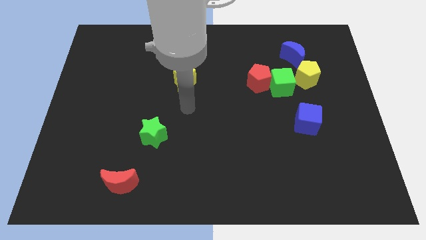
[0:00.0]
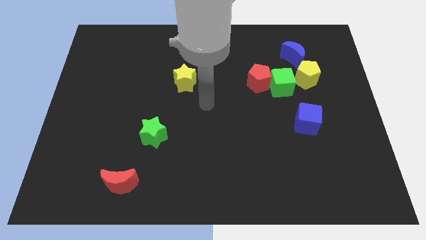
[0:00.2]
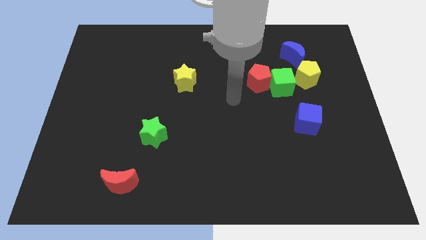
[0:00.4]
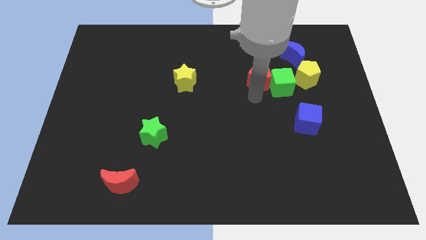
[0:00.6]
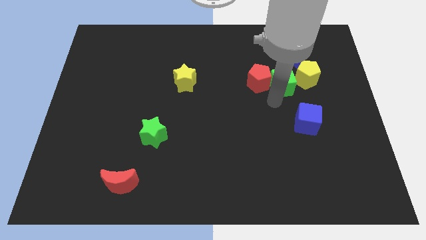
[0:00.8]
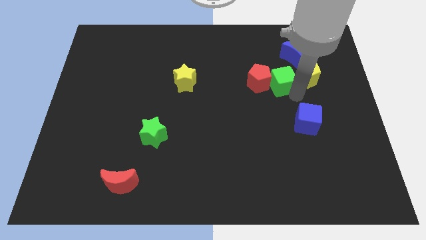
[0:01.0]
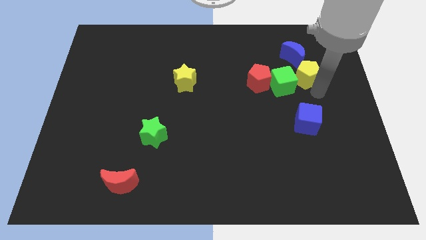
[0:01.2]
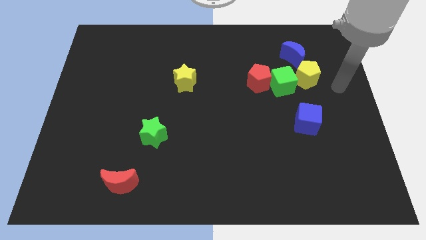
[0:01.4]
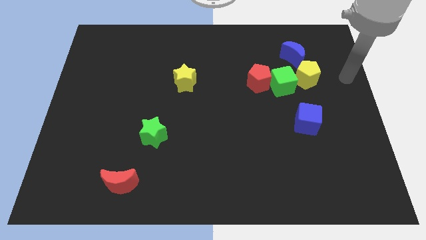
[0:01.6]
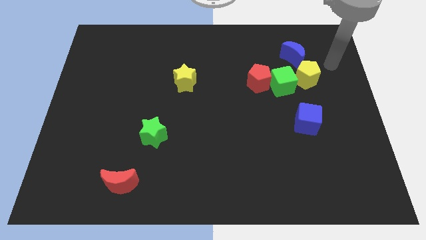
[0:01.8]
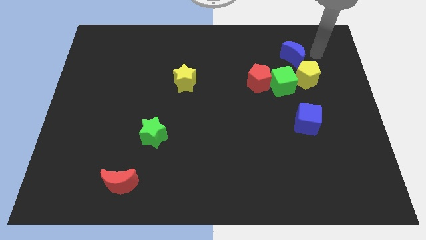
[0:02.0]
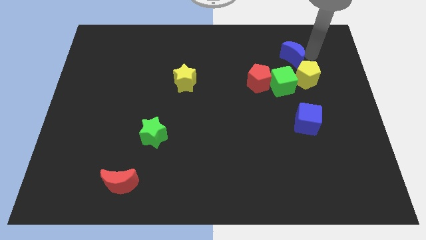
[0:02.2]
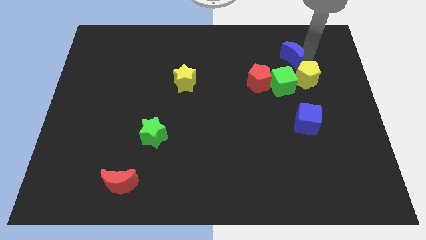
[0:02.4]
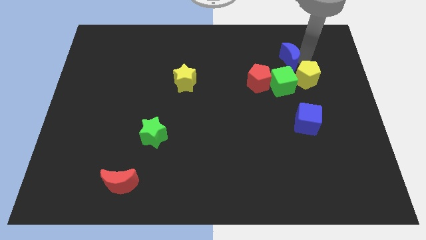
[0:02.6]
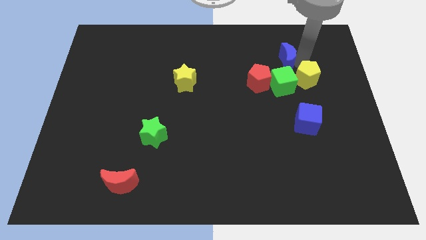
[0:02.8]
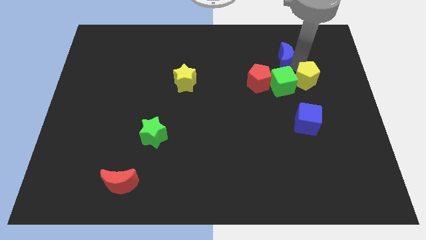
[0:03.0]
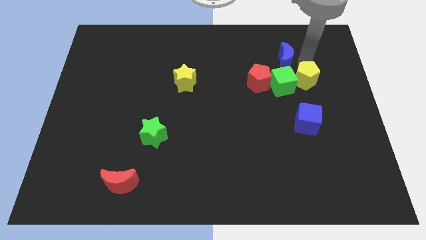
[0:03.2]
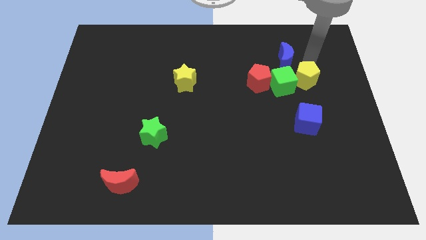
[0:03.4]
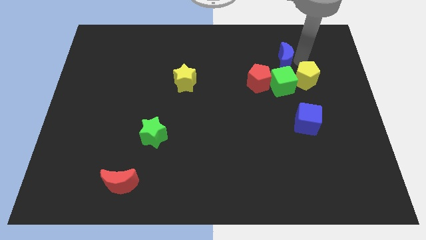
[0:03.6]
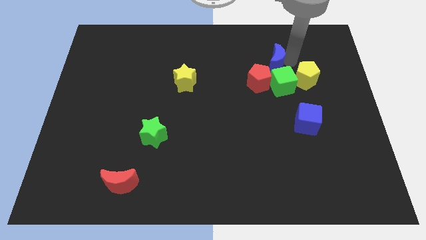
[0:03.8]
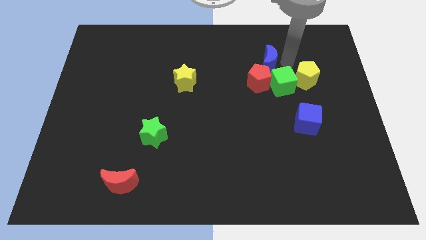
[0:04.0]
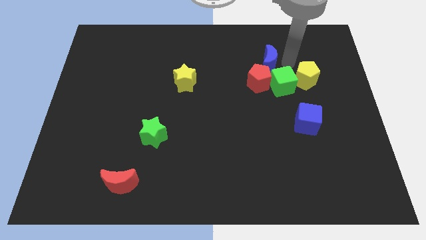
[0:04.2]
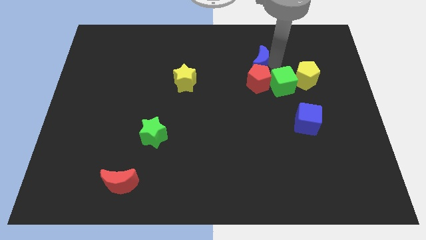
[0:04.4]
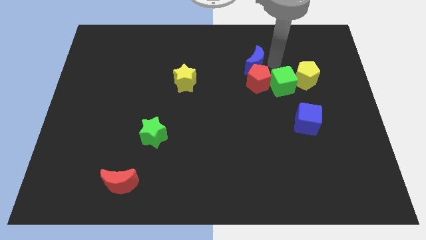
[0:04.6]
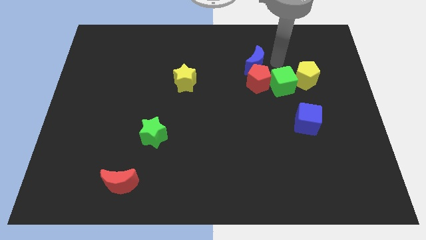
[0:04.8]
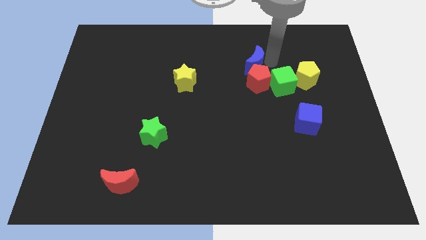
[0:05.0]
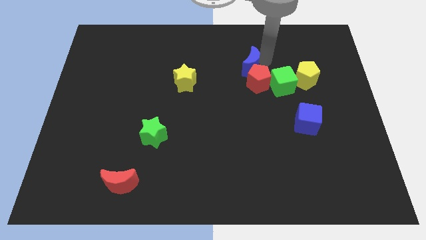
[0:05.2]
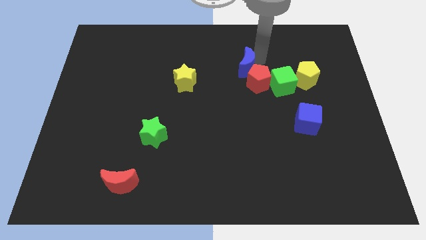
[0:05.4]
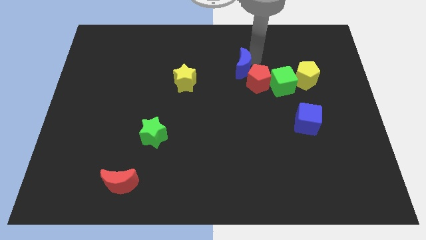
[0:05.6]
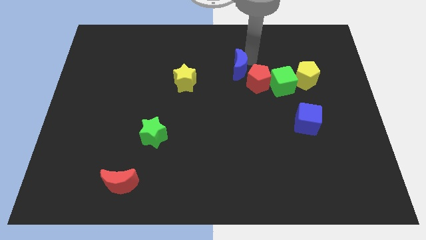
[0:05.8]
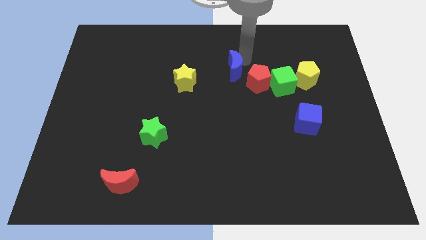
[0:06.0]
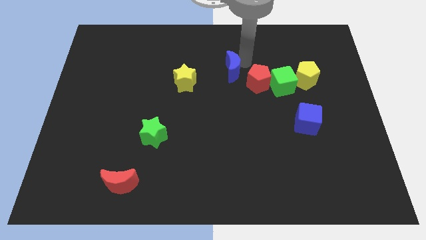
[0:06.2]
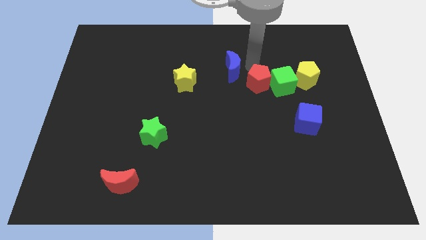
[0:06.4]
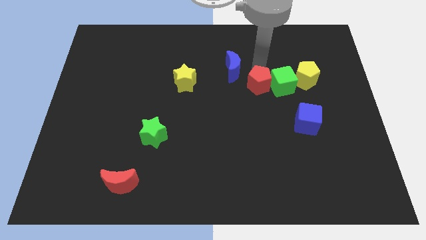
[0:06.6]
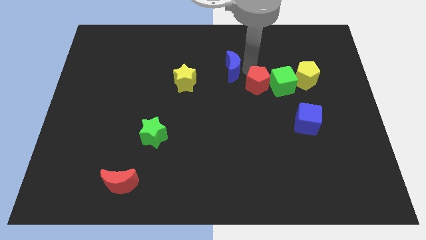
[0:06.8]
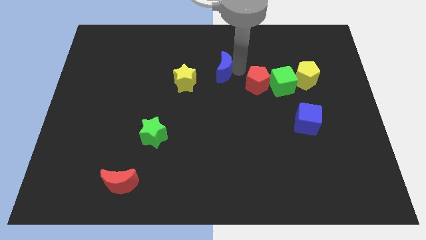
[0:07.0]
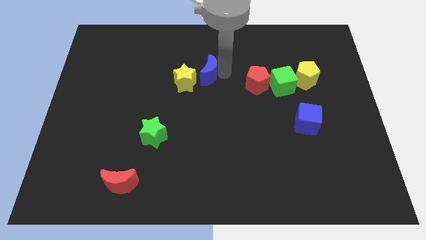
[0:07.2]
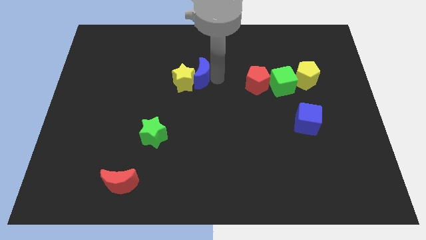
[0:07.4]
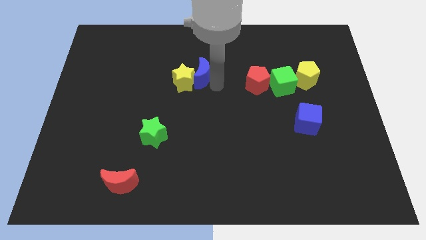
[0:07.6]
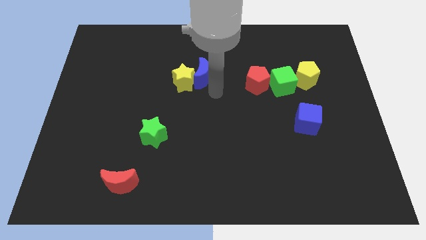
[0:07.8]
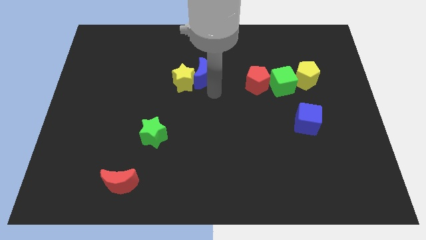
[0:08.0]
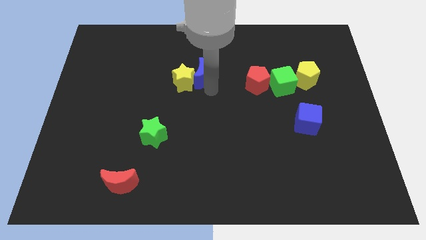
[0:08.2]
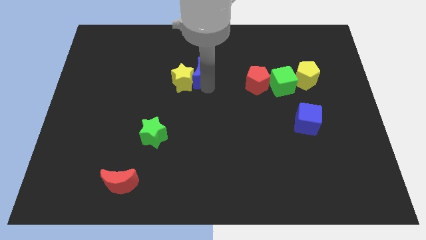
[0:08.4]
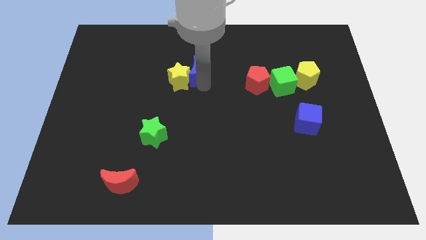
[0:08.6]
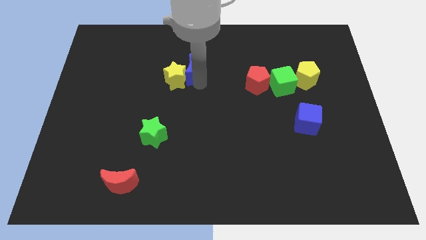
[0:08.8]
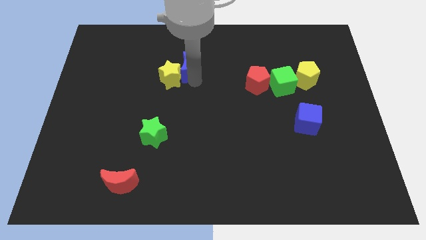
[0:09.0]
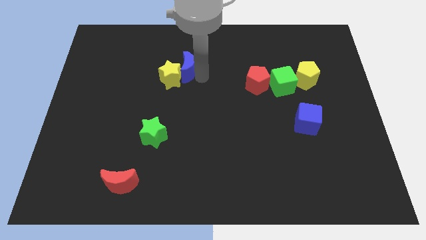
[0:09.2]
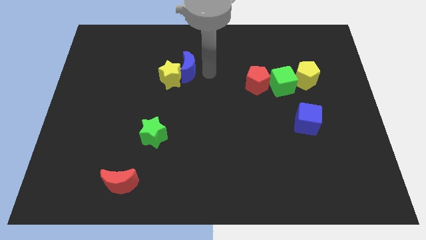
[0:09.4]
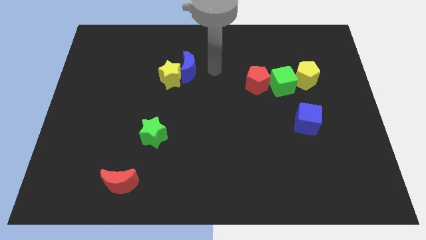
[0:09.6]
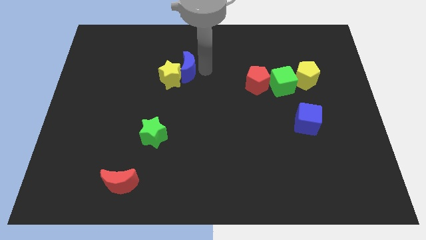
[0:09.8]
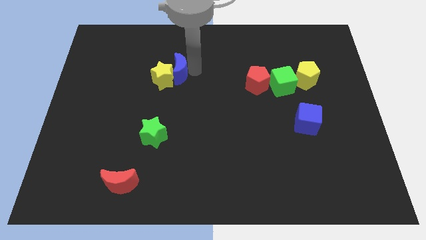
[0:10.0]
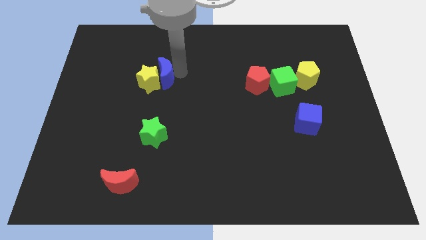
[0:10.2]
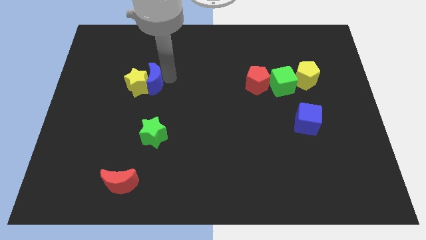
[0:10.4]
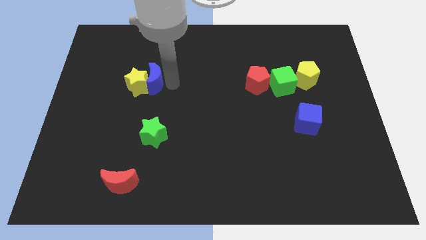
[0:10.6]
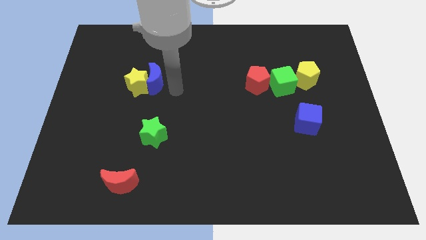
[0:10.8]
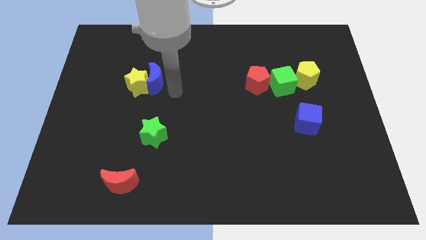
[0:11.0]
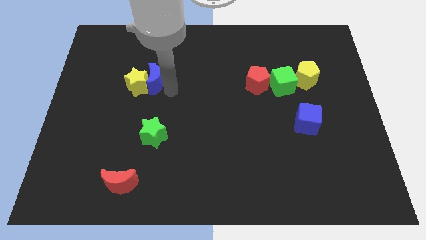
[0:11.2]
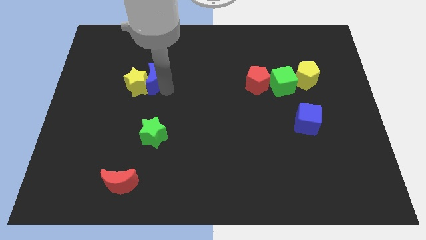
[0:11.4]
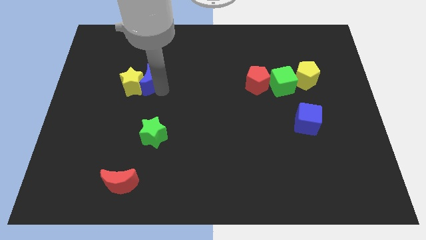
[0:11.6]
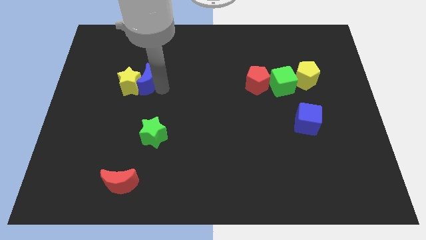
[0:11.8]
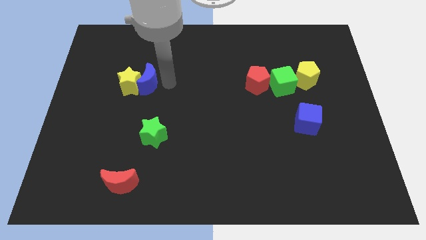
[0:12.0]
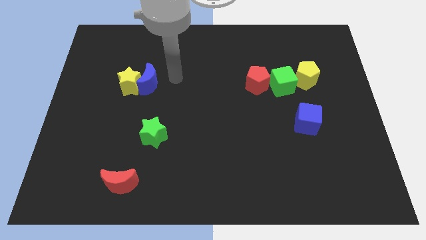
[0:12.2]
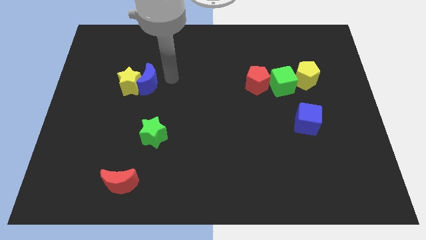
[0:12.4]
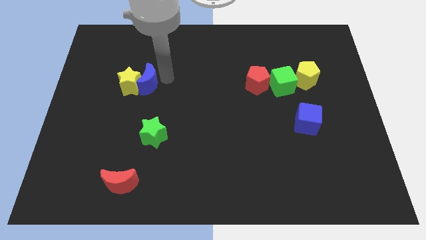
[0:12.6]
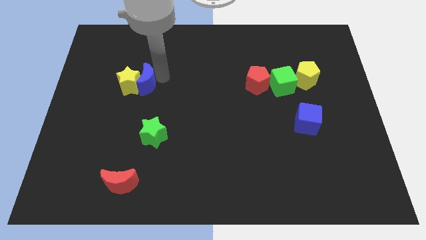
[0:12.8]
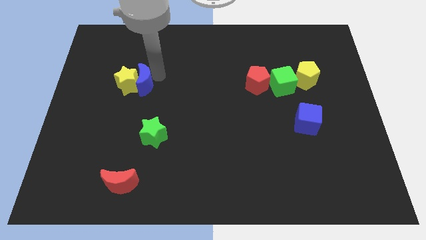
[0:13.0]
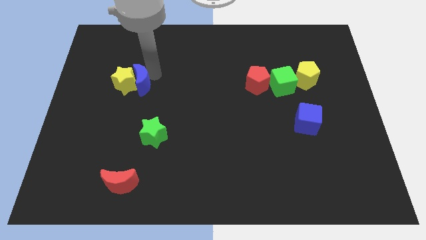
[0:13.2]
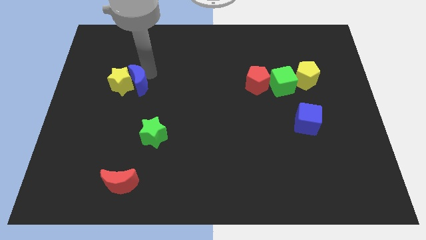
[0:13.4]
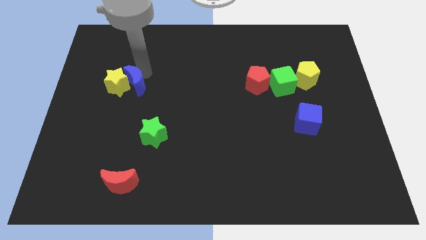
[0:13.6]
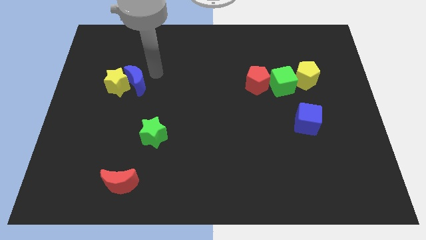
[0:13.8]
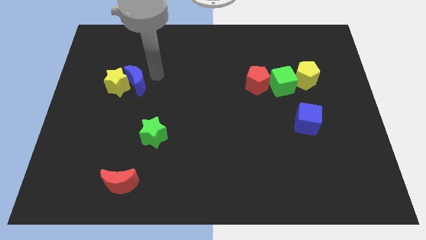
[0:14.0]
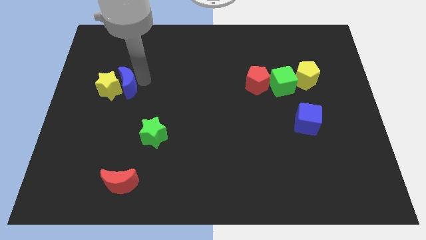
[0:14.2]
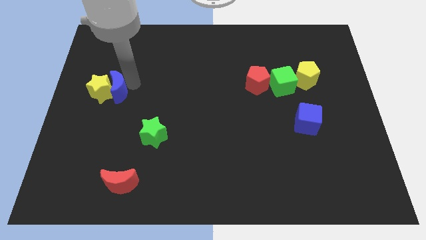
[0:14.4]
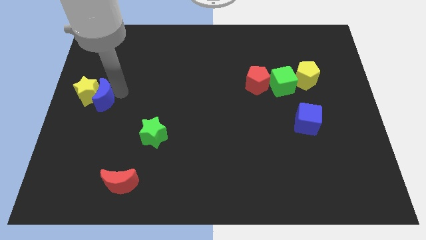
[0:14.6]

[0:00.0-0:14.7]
move the blue moon to the left side of the board
